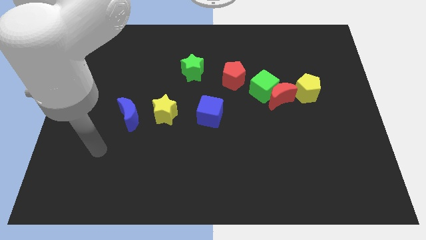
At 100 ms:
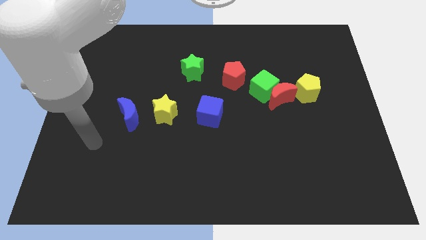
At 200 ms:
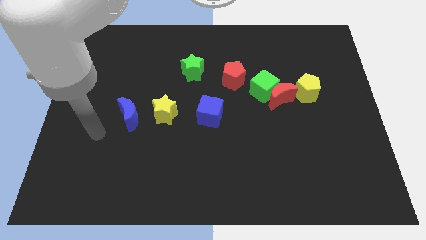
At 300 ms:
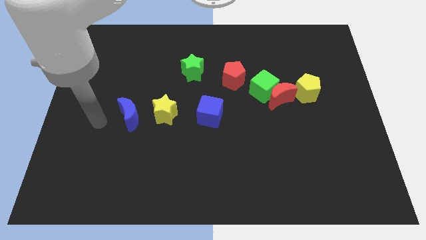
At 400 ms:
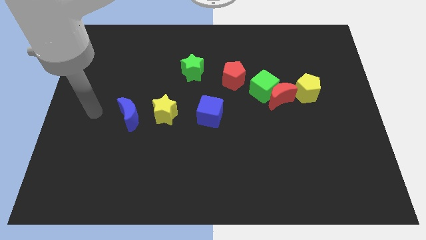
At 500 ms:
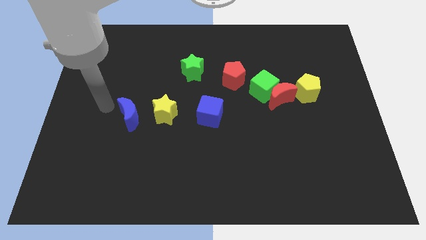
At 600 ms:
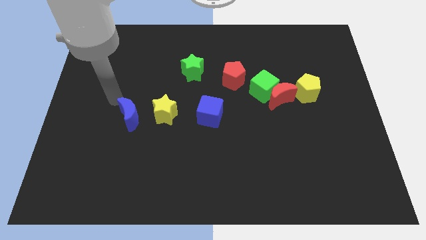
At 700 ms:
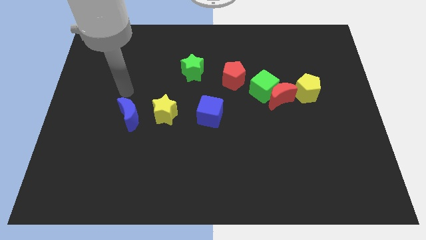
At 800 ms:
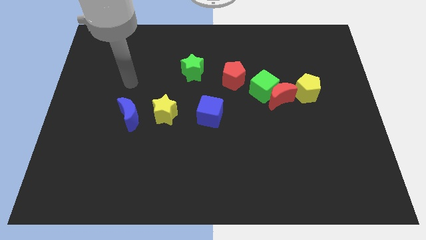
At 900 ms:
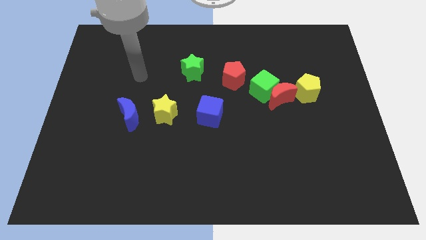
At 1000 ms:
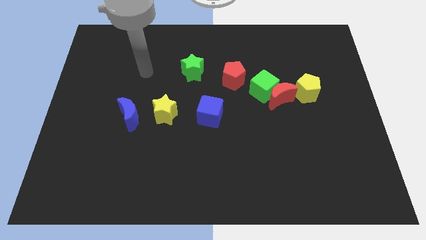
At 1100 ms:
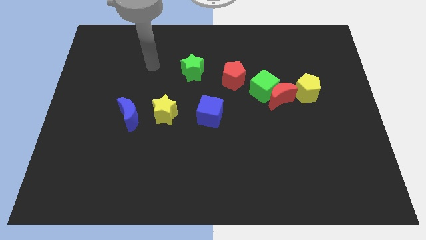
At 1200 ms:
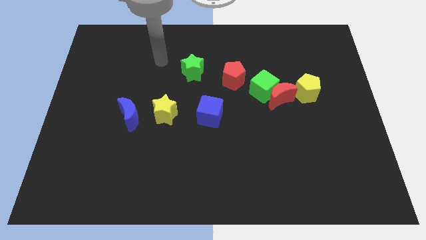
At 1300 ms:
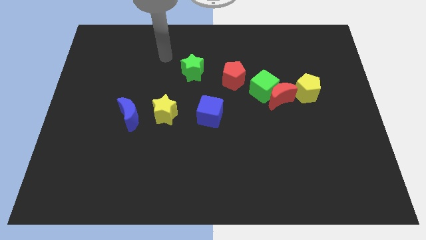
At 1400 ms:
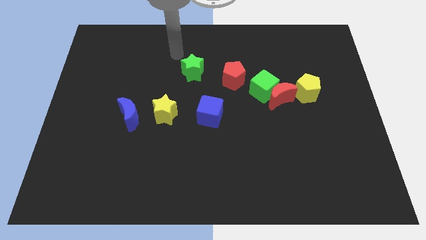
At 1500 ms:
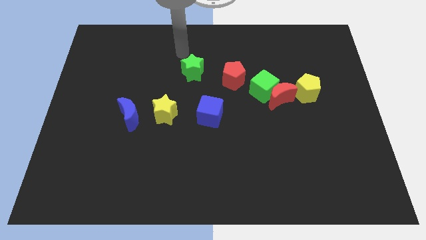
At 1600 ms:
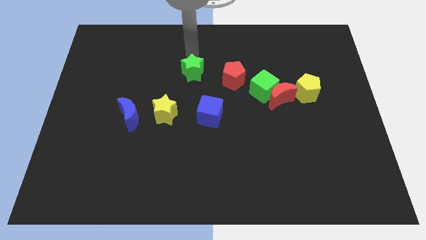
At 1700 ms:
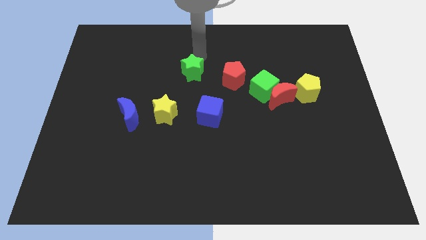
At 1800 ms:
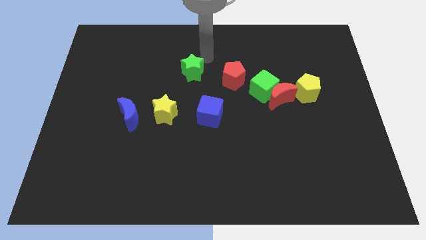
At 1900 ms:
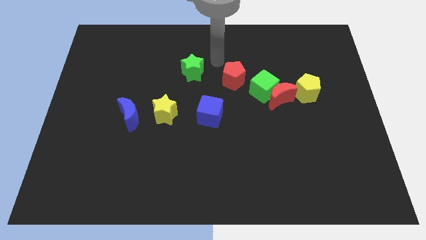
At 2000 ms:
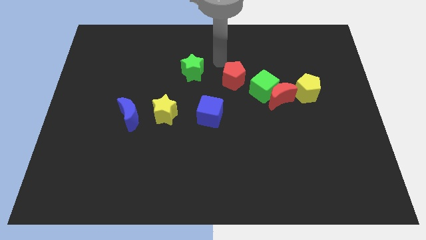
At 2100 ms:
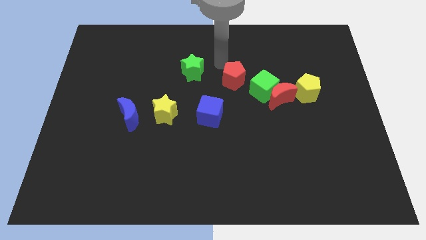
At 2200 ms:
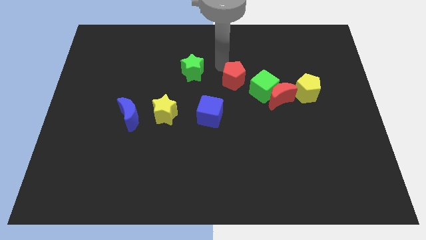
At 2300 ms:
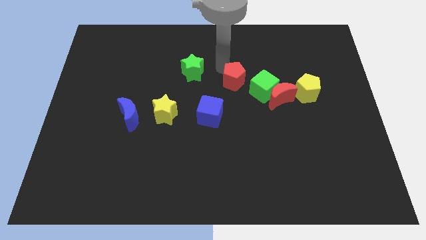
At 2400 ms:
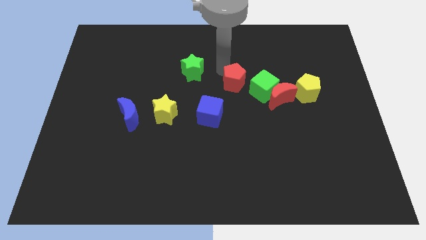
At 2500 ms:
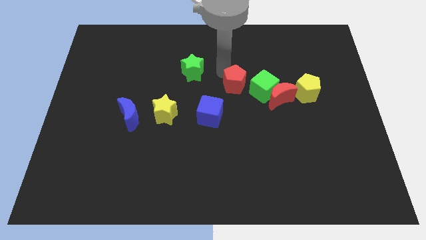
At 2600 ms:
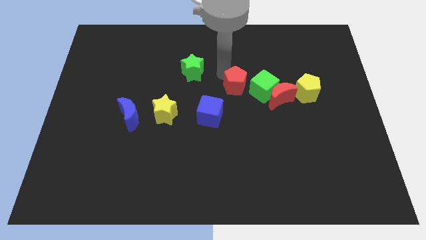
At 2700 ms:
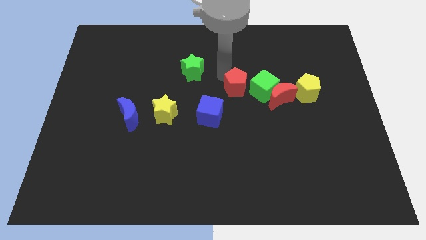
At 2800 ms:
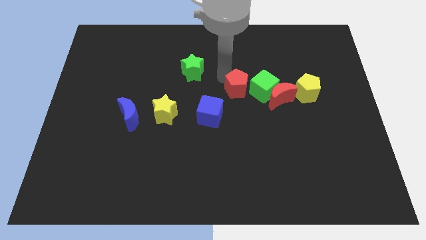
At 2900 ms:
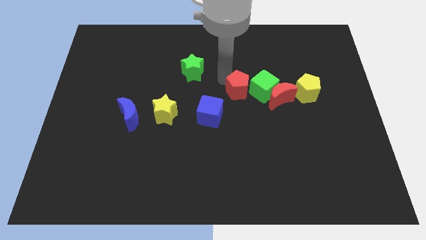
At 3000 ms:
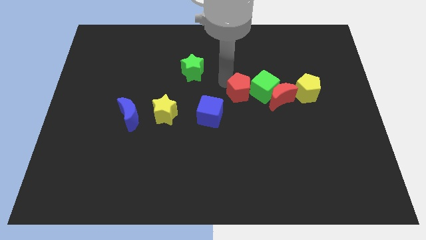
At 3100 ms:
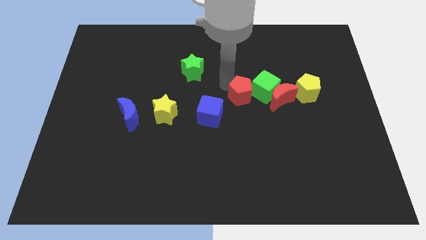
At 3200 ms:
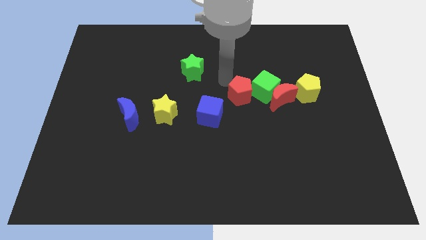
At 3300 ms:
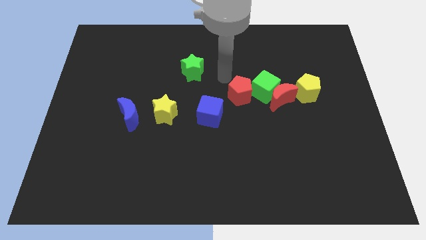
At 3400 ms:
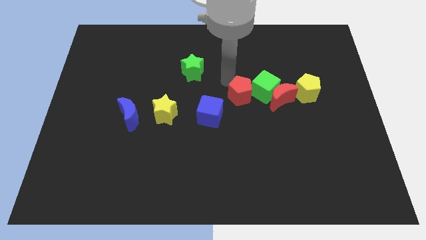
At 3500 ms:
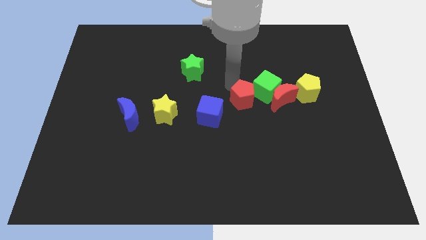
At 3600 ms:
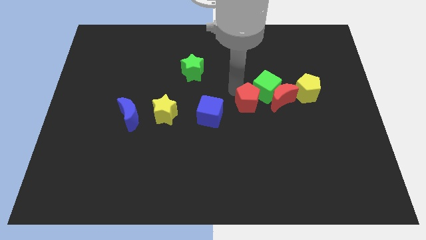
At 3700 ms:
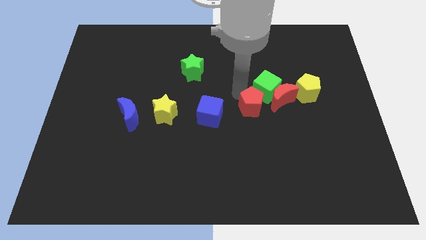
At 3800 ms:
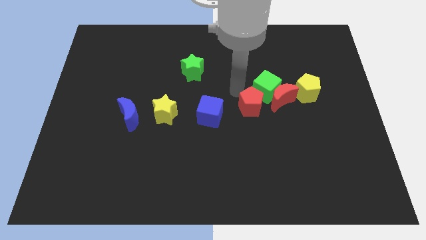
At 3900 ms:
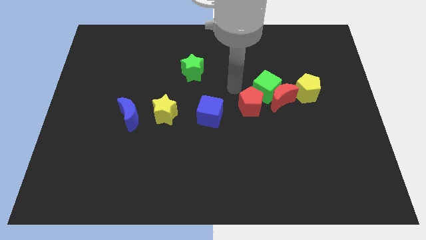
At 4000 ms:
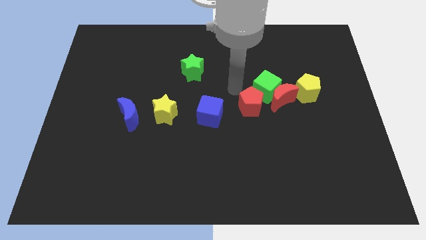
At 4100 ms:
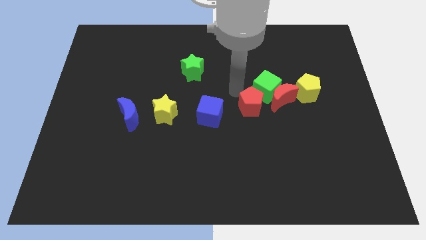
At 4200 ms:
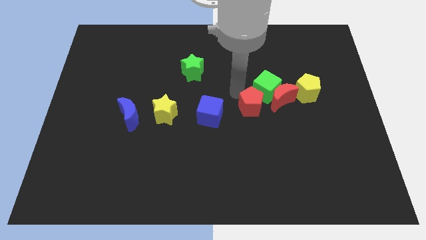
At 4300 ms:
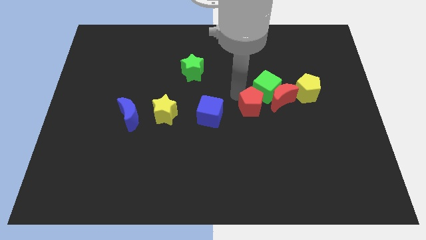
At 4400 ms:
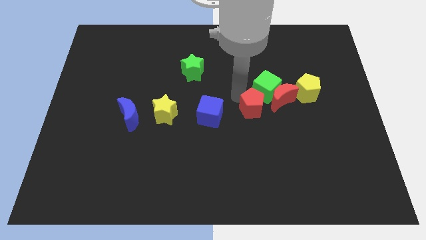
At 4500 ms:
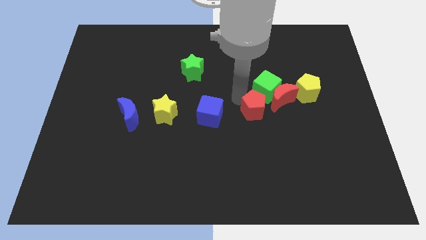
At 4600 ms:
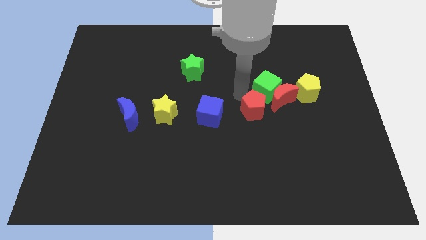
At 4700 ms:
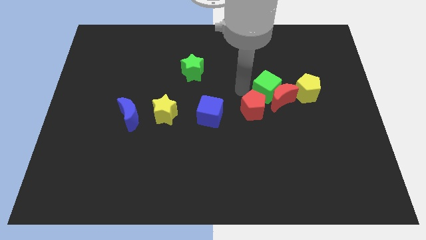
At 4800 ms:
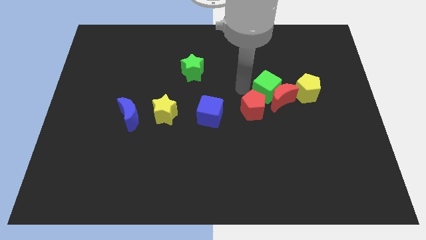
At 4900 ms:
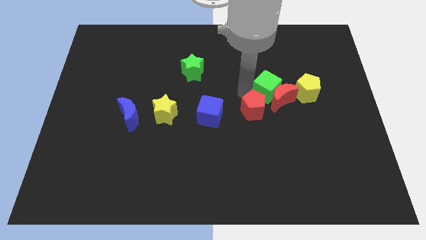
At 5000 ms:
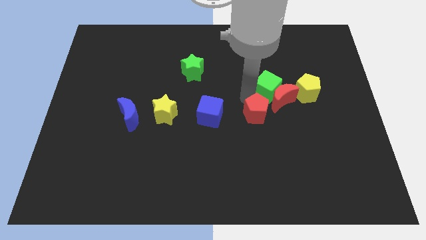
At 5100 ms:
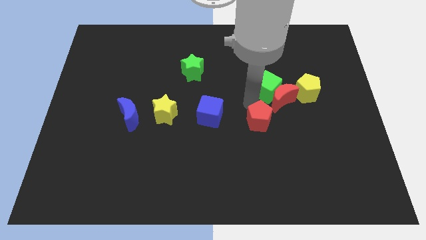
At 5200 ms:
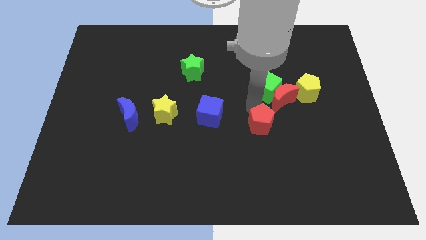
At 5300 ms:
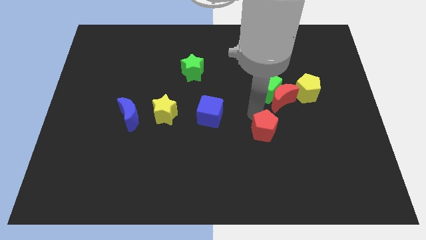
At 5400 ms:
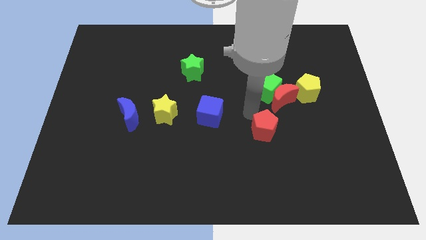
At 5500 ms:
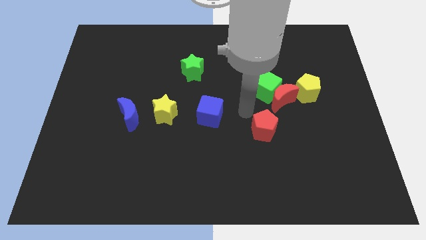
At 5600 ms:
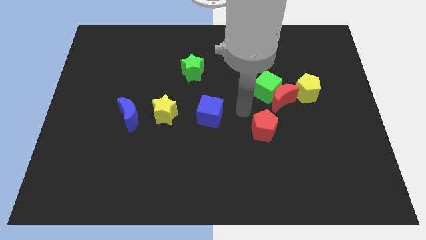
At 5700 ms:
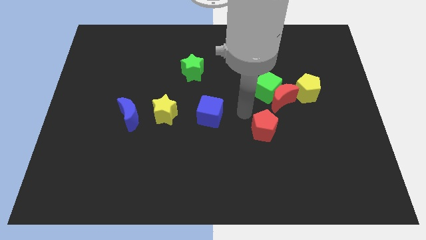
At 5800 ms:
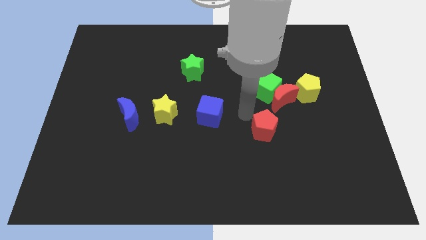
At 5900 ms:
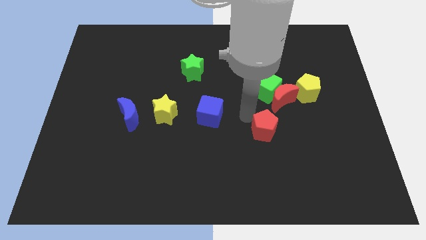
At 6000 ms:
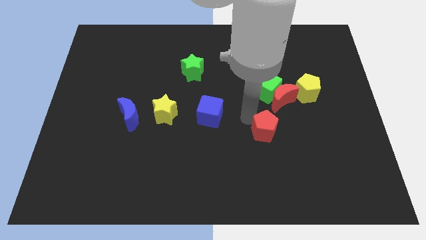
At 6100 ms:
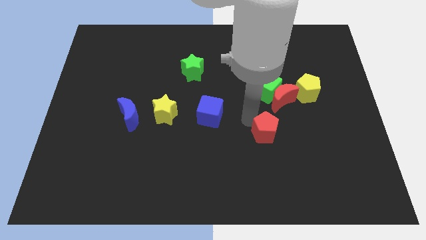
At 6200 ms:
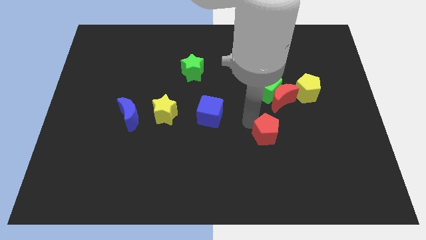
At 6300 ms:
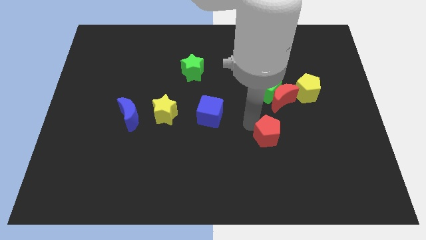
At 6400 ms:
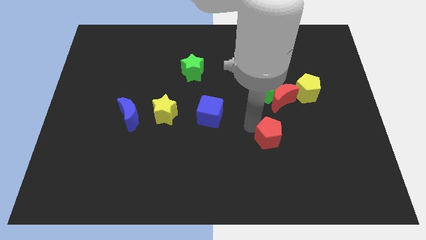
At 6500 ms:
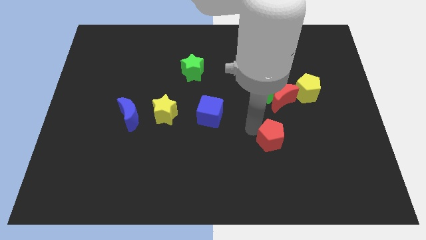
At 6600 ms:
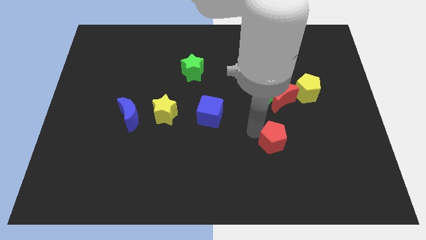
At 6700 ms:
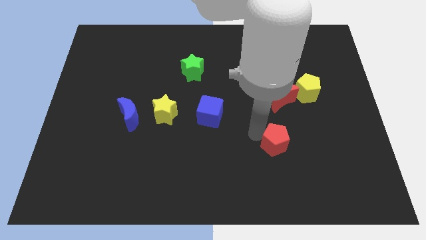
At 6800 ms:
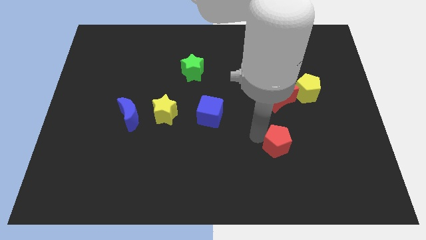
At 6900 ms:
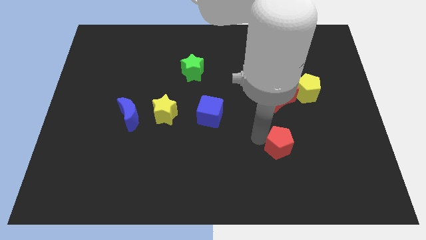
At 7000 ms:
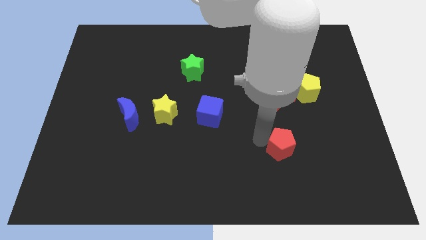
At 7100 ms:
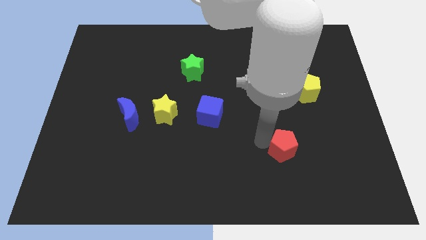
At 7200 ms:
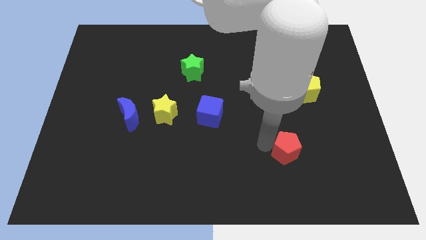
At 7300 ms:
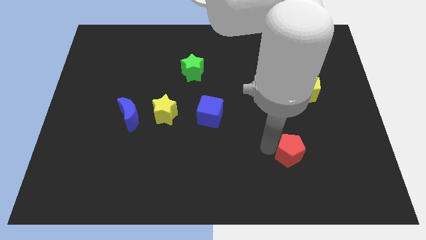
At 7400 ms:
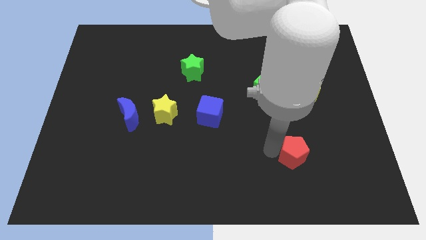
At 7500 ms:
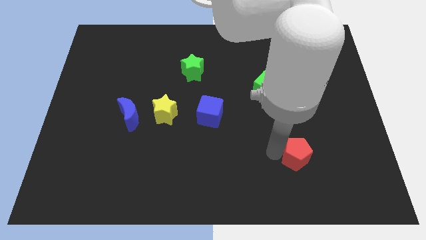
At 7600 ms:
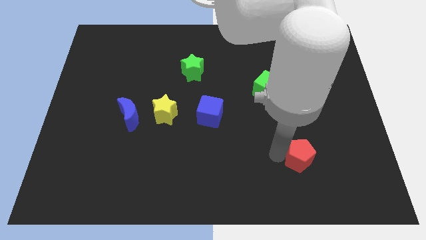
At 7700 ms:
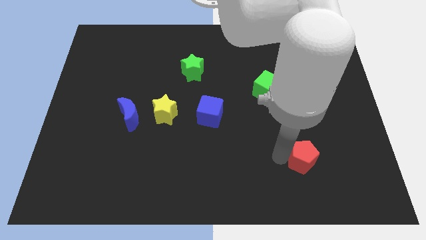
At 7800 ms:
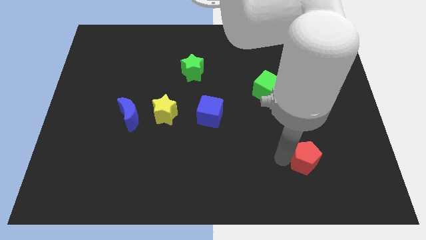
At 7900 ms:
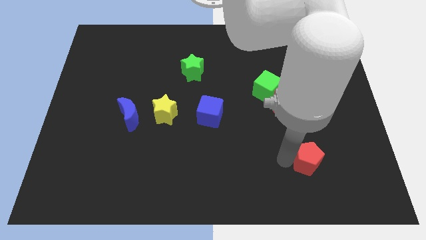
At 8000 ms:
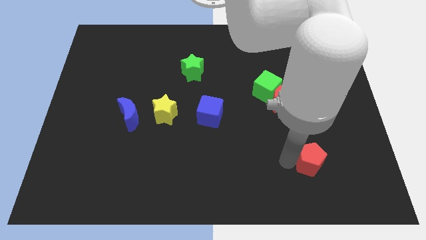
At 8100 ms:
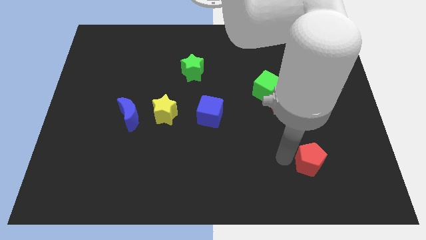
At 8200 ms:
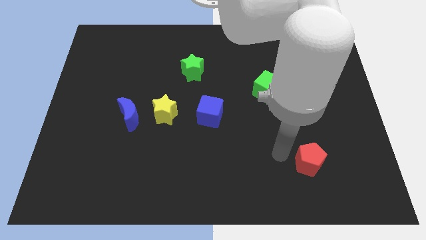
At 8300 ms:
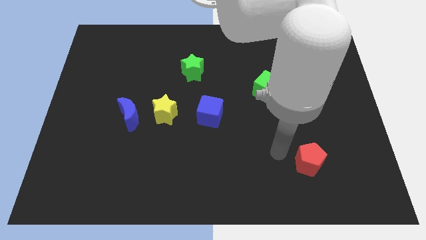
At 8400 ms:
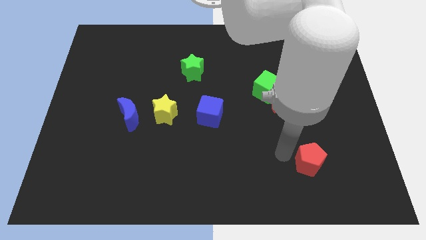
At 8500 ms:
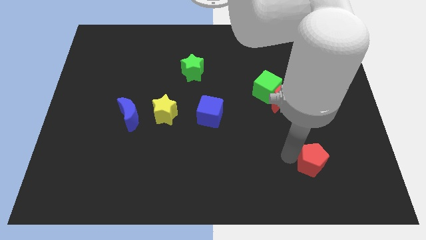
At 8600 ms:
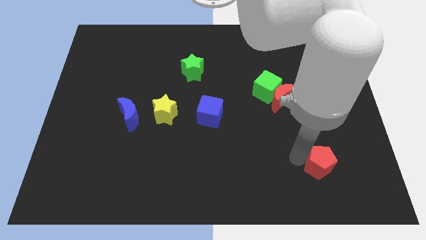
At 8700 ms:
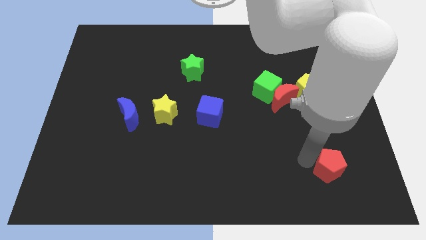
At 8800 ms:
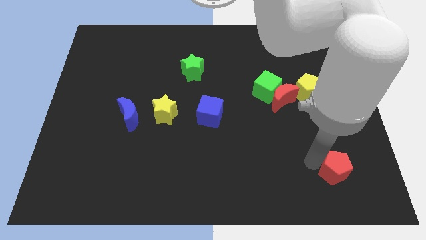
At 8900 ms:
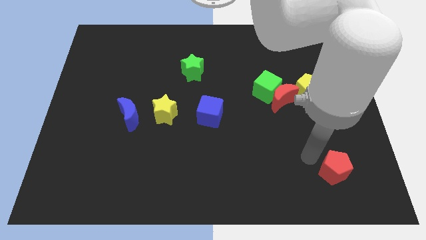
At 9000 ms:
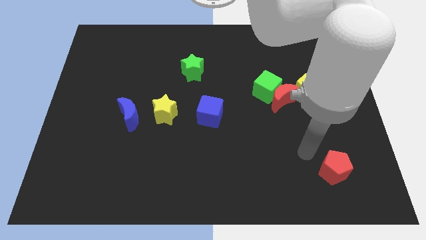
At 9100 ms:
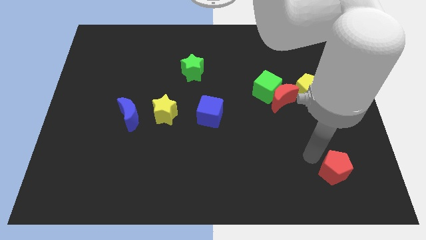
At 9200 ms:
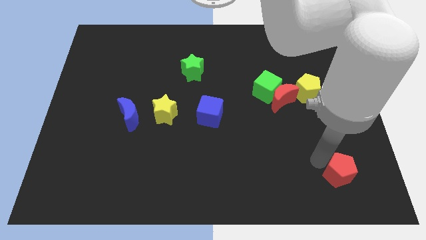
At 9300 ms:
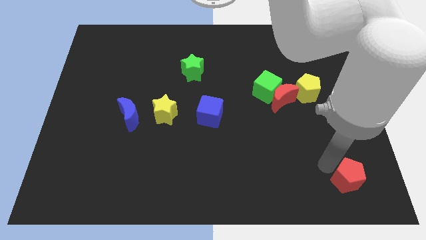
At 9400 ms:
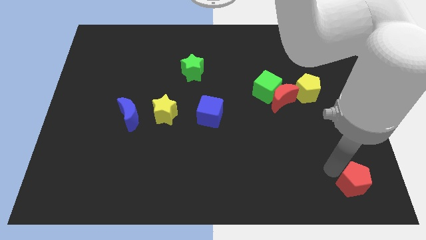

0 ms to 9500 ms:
slide the red pentagon to the bottom right corner
